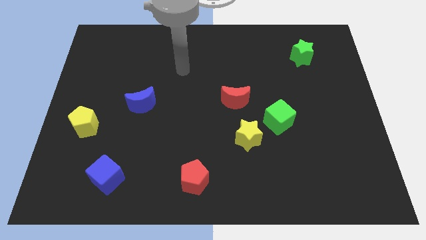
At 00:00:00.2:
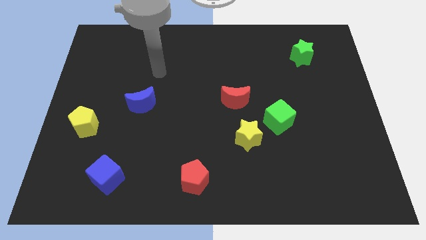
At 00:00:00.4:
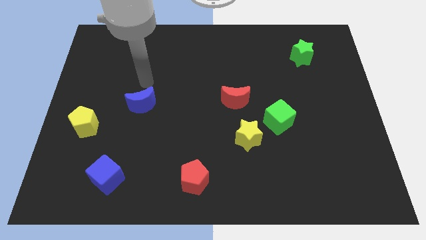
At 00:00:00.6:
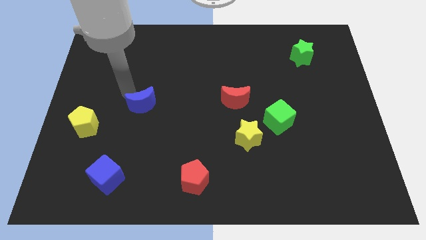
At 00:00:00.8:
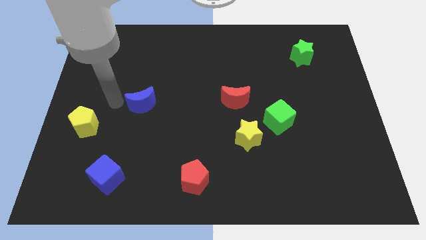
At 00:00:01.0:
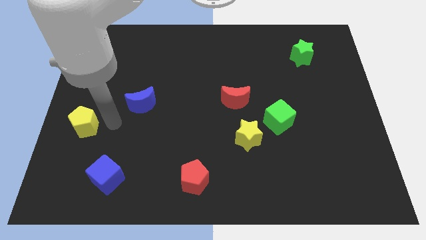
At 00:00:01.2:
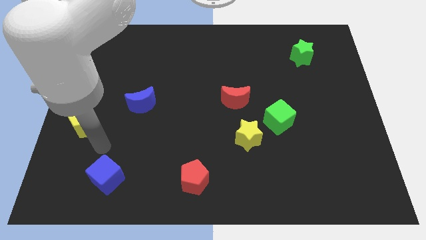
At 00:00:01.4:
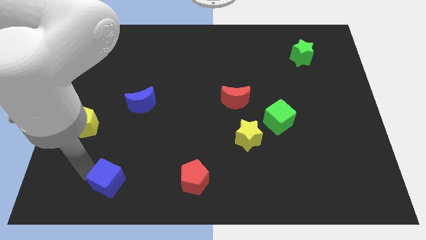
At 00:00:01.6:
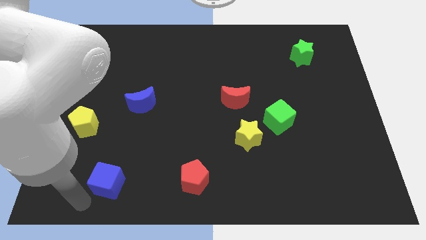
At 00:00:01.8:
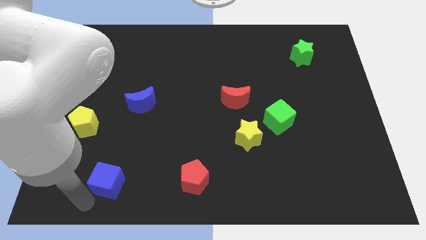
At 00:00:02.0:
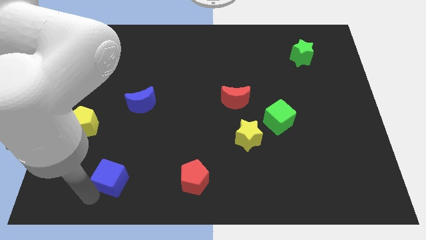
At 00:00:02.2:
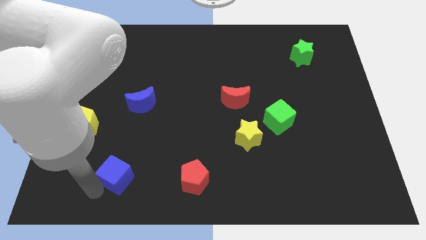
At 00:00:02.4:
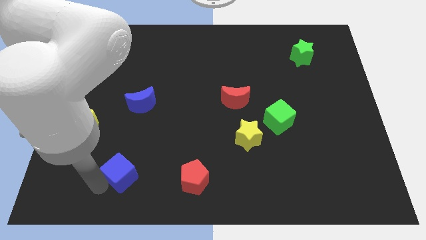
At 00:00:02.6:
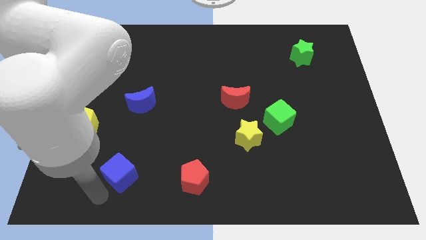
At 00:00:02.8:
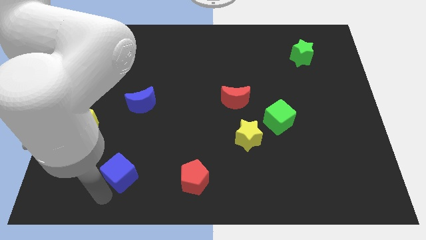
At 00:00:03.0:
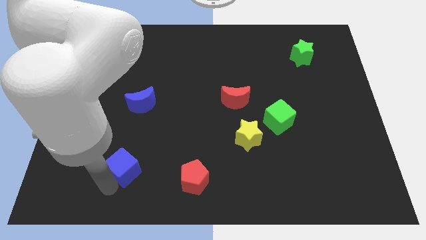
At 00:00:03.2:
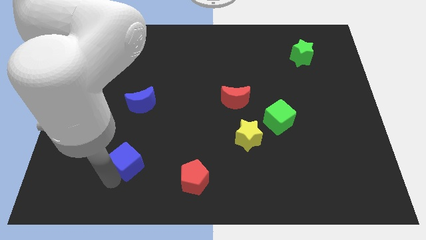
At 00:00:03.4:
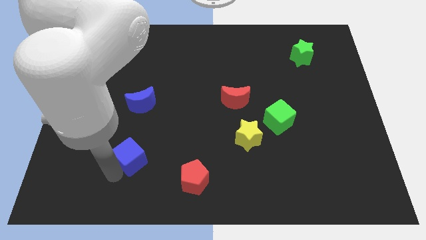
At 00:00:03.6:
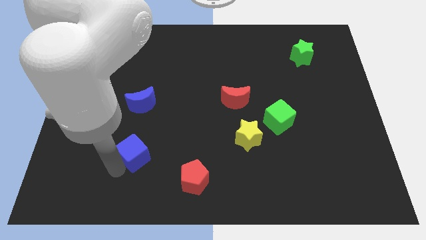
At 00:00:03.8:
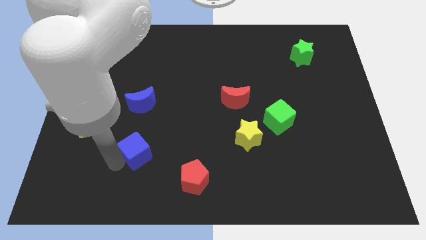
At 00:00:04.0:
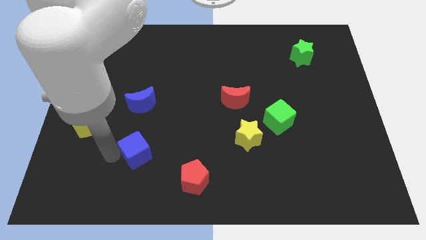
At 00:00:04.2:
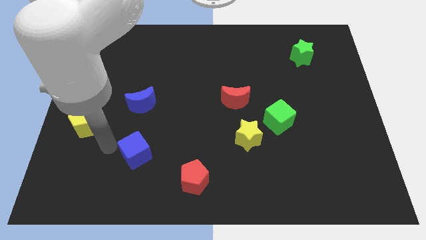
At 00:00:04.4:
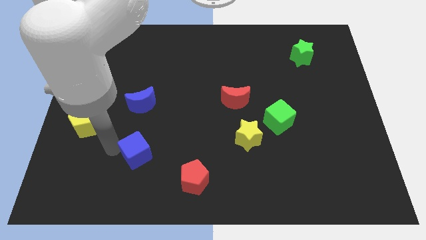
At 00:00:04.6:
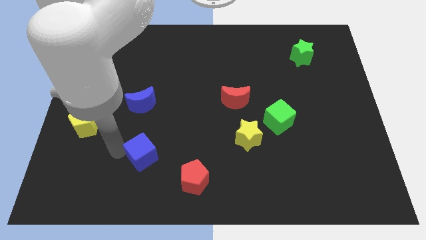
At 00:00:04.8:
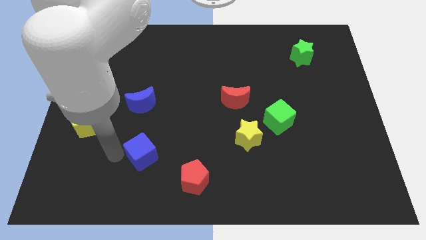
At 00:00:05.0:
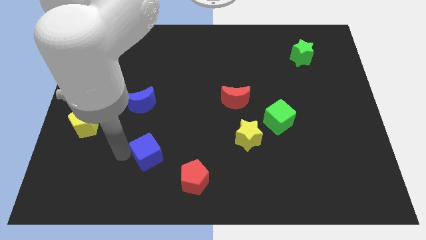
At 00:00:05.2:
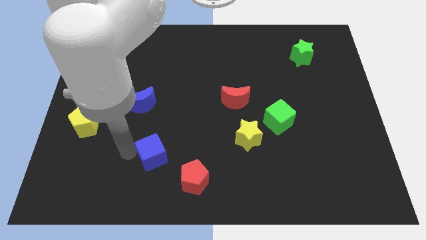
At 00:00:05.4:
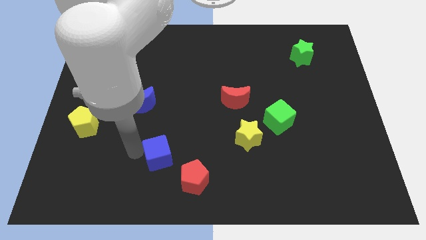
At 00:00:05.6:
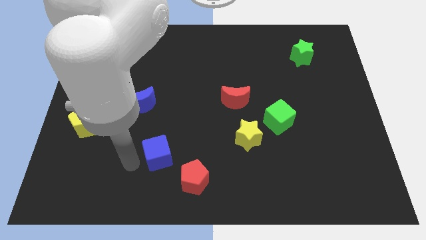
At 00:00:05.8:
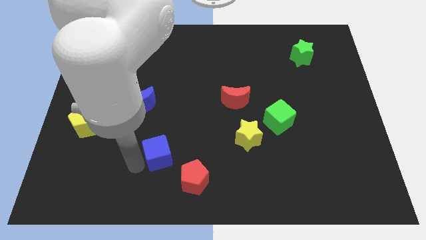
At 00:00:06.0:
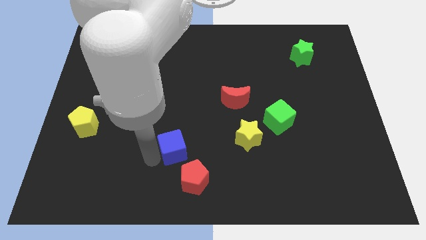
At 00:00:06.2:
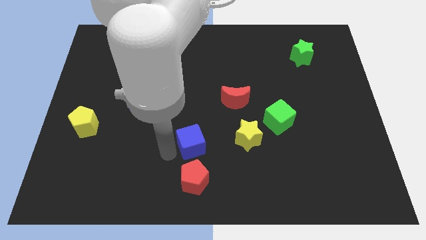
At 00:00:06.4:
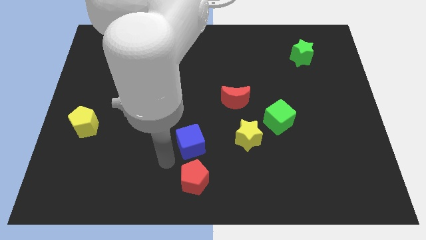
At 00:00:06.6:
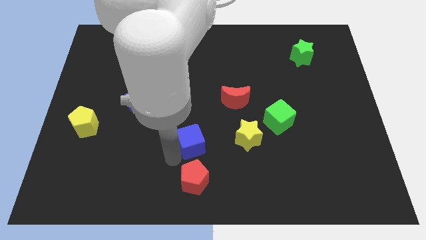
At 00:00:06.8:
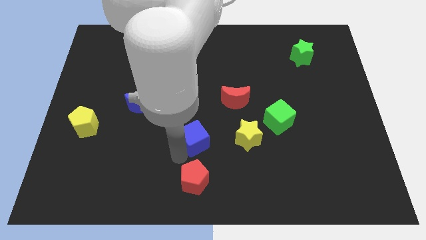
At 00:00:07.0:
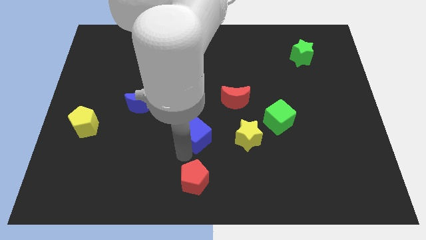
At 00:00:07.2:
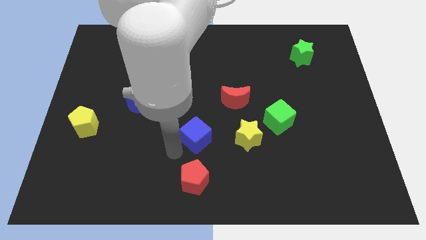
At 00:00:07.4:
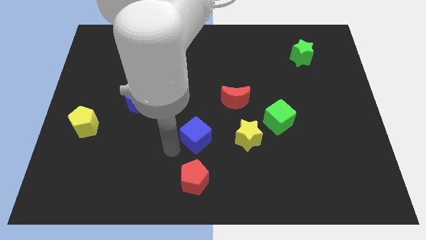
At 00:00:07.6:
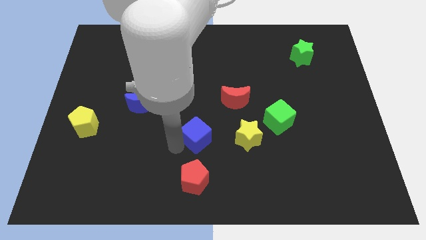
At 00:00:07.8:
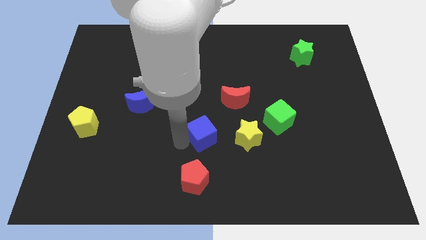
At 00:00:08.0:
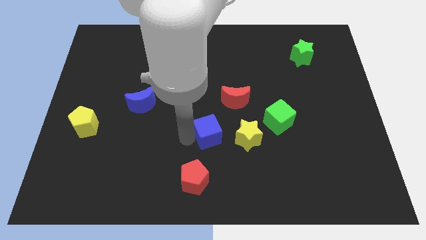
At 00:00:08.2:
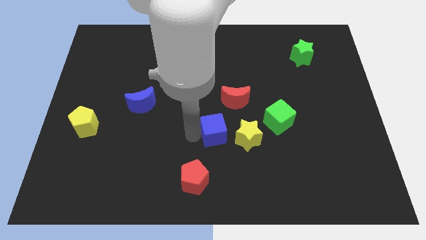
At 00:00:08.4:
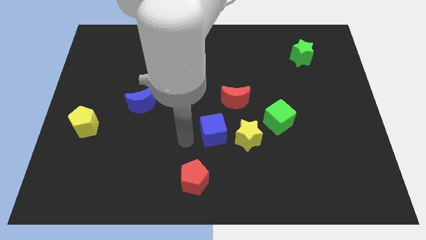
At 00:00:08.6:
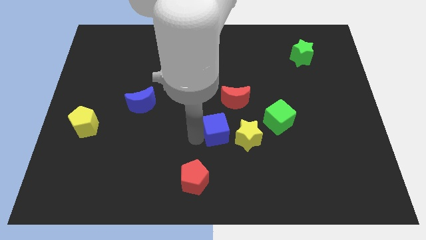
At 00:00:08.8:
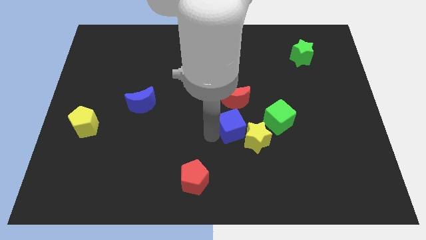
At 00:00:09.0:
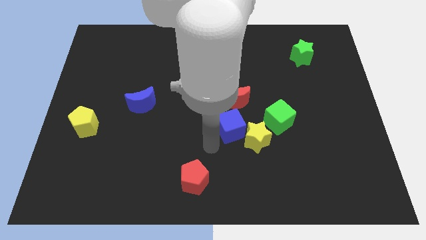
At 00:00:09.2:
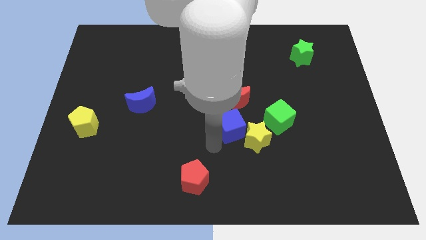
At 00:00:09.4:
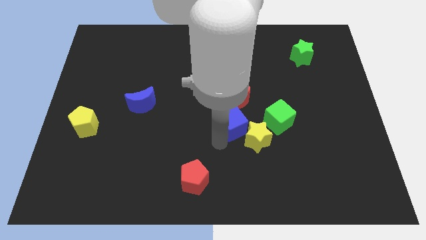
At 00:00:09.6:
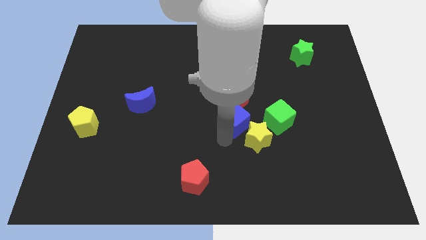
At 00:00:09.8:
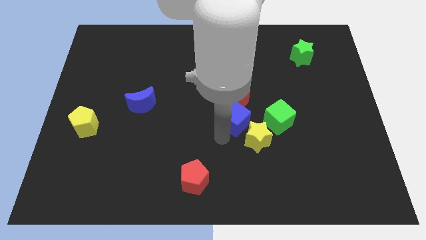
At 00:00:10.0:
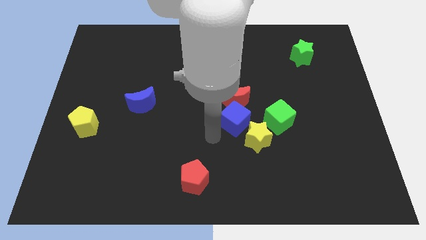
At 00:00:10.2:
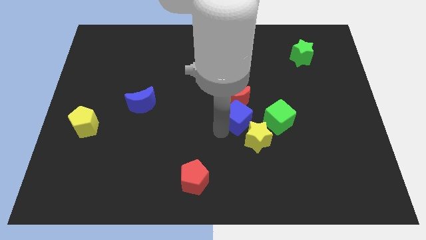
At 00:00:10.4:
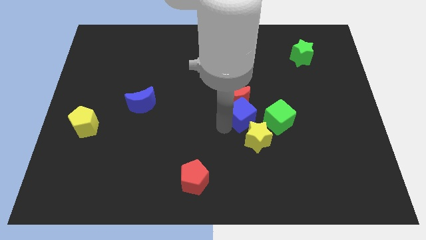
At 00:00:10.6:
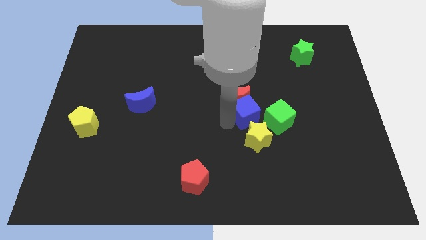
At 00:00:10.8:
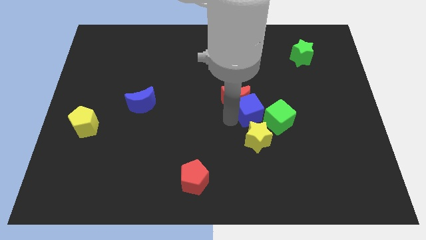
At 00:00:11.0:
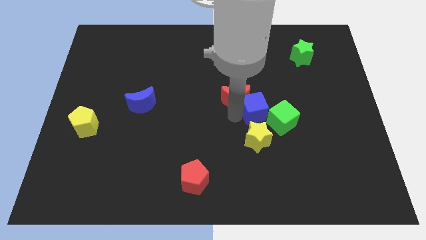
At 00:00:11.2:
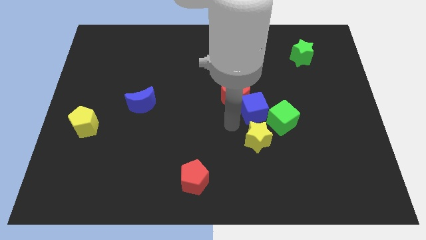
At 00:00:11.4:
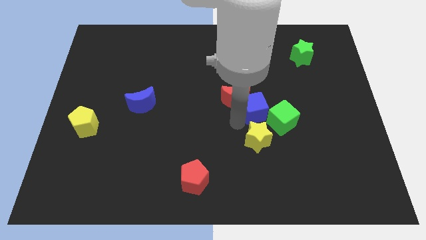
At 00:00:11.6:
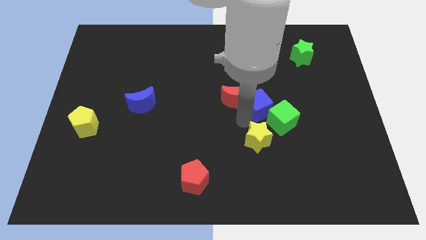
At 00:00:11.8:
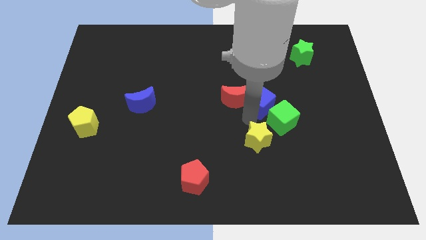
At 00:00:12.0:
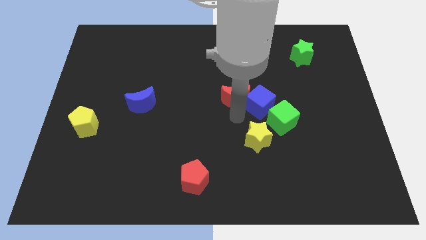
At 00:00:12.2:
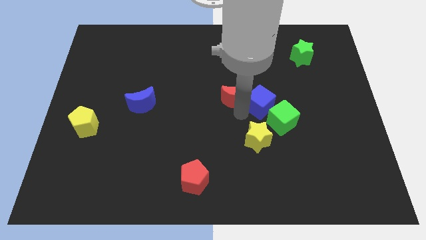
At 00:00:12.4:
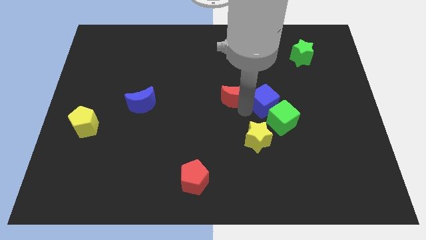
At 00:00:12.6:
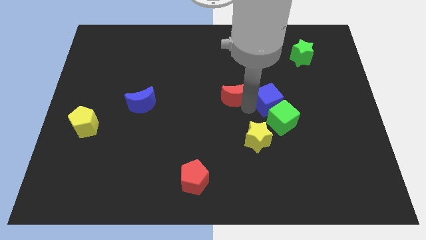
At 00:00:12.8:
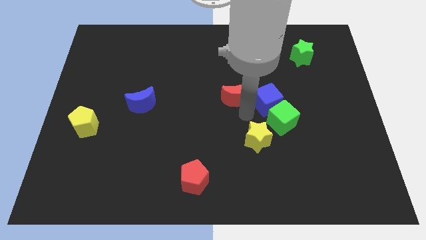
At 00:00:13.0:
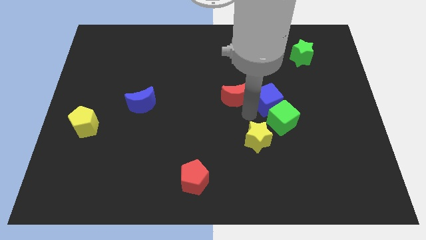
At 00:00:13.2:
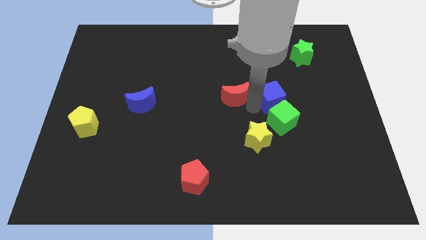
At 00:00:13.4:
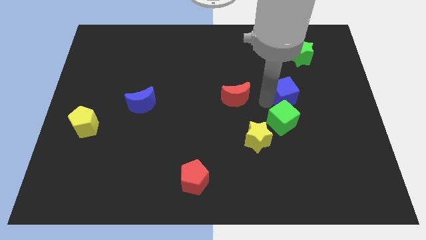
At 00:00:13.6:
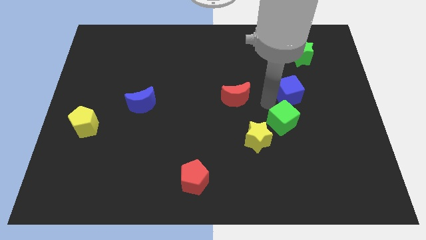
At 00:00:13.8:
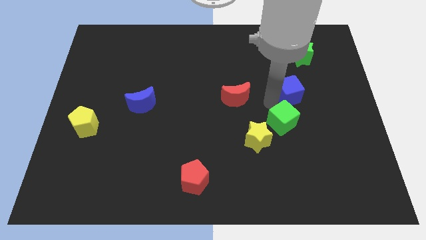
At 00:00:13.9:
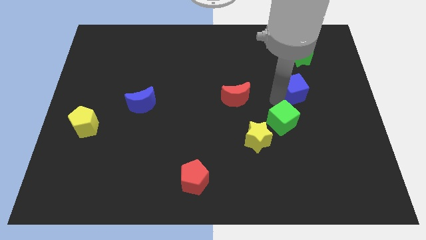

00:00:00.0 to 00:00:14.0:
slide the blue cube to the bottom of the green star

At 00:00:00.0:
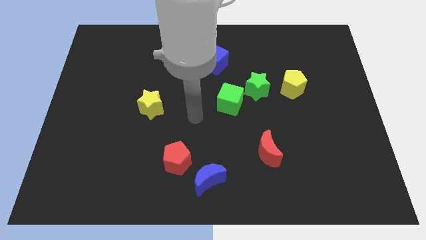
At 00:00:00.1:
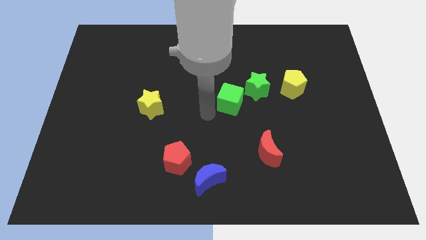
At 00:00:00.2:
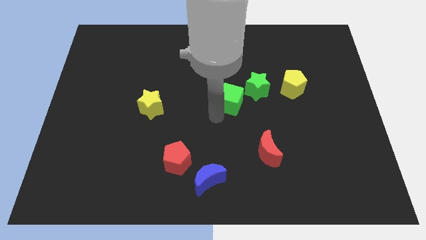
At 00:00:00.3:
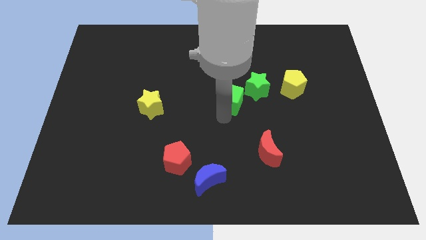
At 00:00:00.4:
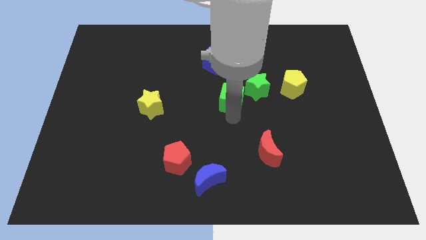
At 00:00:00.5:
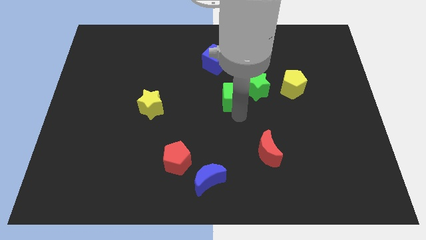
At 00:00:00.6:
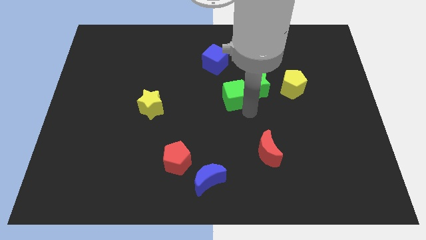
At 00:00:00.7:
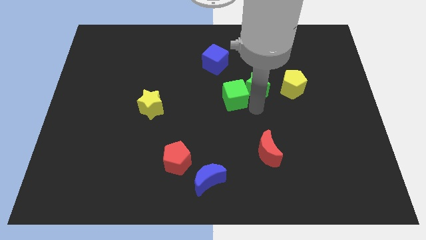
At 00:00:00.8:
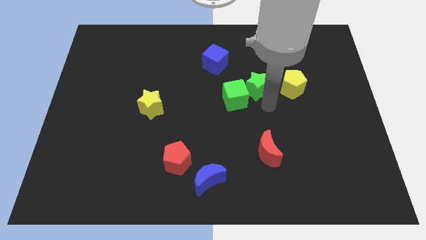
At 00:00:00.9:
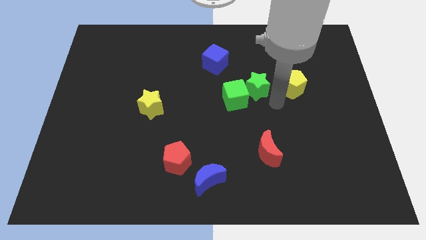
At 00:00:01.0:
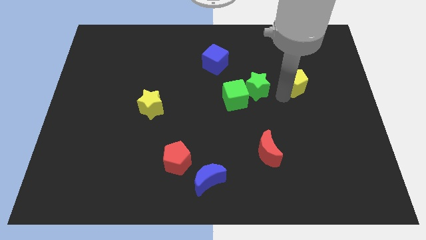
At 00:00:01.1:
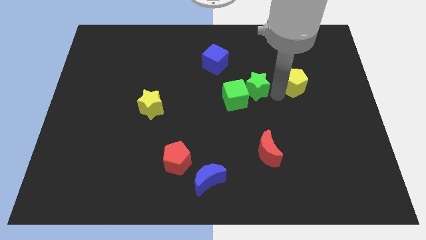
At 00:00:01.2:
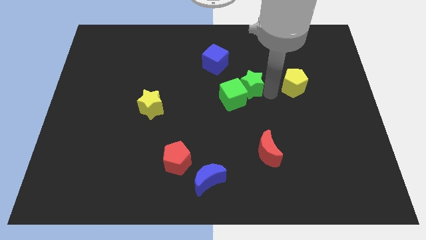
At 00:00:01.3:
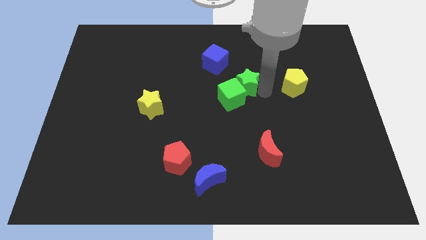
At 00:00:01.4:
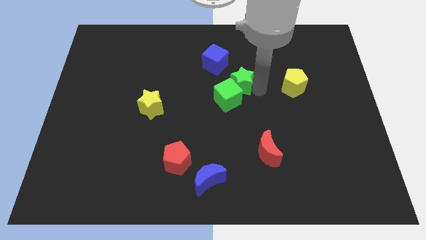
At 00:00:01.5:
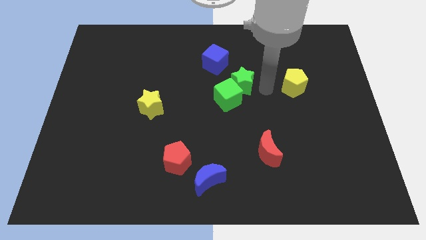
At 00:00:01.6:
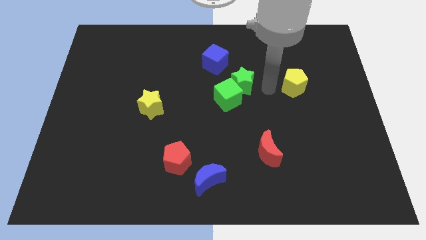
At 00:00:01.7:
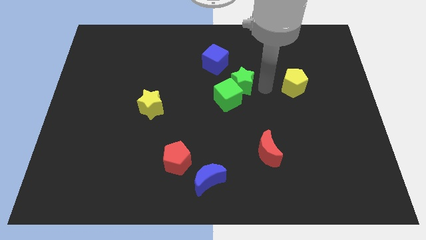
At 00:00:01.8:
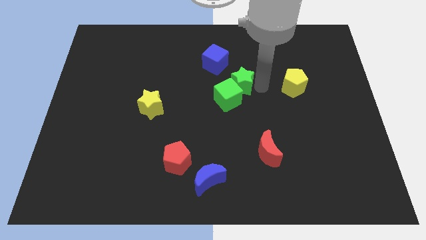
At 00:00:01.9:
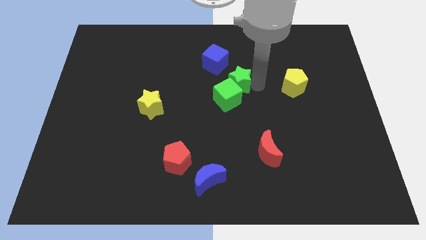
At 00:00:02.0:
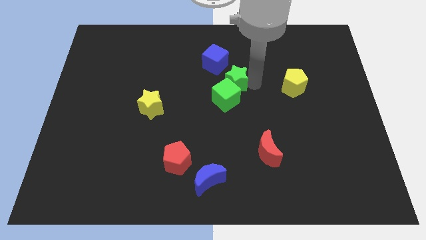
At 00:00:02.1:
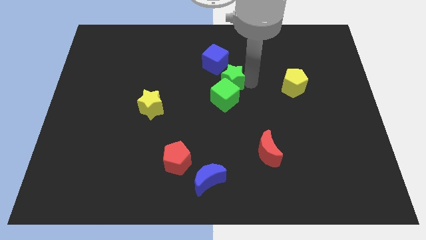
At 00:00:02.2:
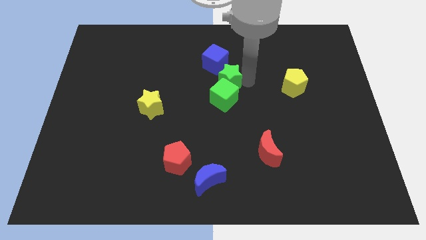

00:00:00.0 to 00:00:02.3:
move the green star to the top left side of the green cube
